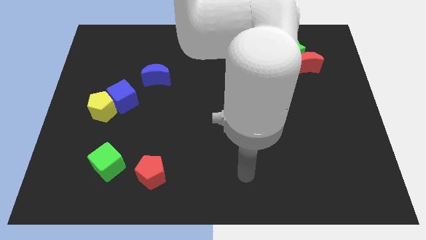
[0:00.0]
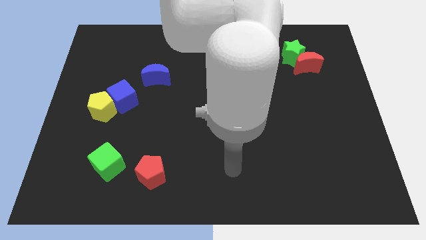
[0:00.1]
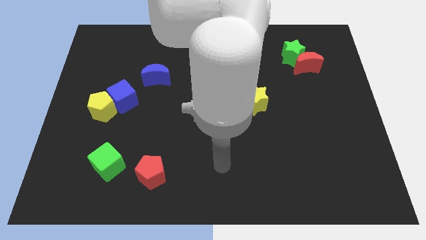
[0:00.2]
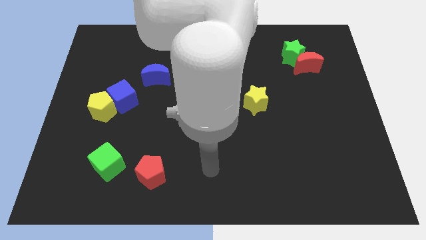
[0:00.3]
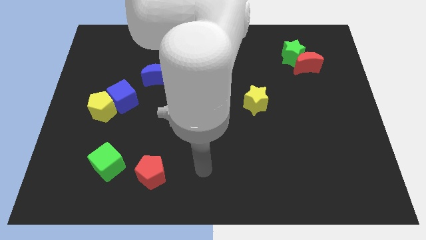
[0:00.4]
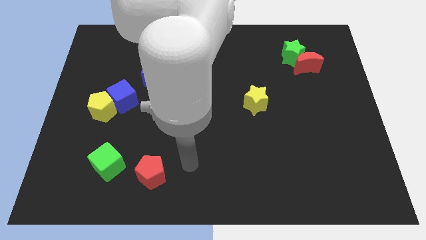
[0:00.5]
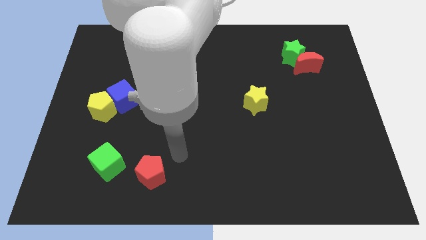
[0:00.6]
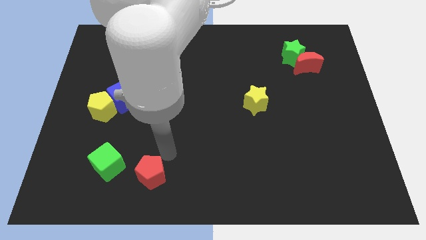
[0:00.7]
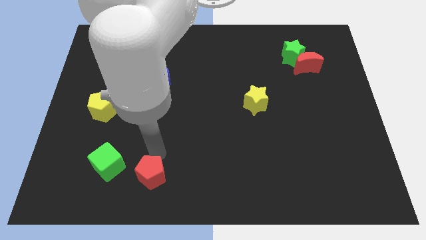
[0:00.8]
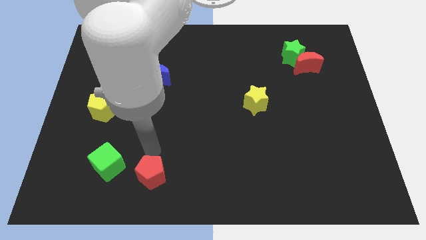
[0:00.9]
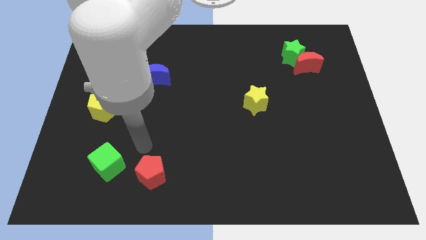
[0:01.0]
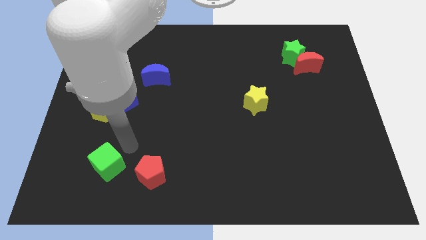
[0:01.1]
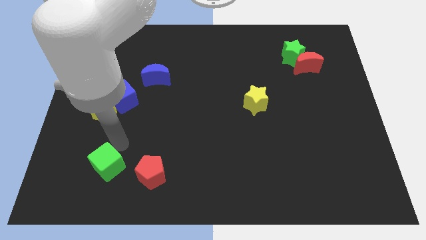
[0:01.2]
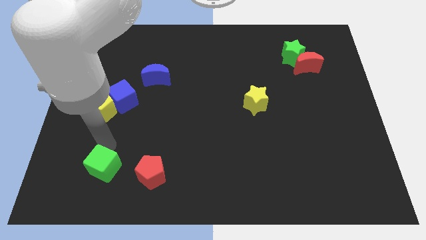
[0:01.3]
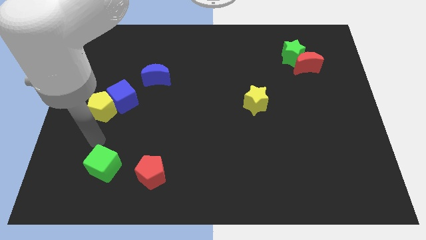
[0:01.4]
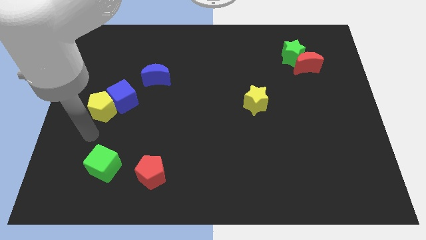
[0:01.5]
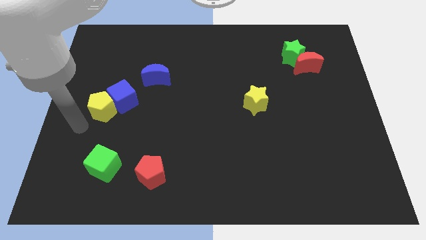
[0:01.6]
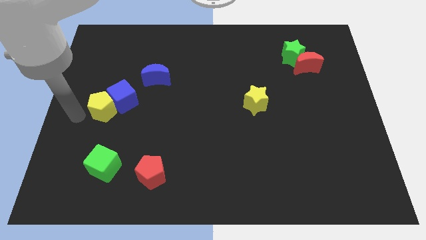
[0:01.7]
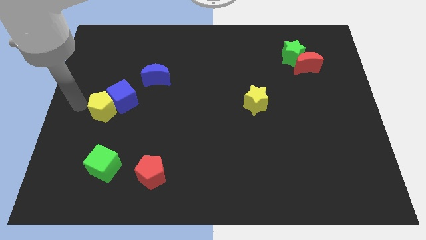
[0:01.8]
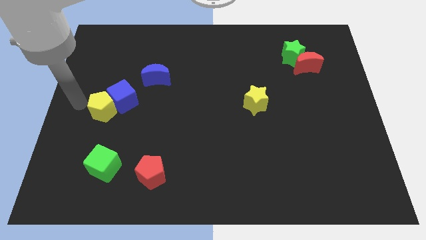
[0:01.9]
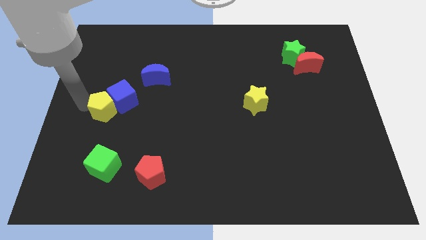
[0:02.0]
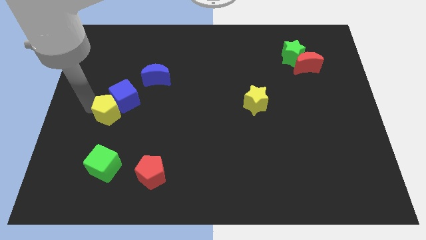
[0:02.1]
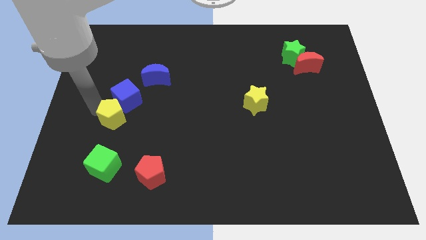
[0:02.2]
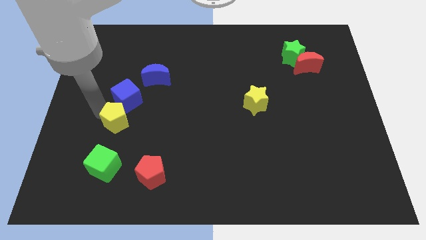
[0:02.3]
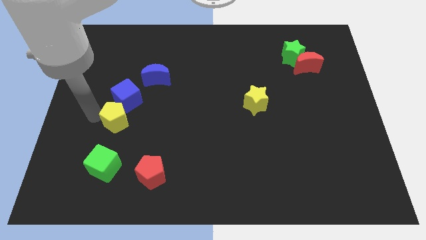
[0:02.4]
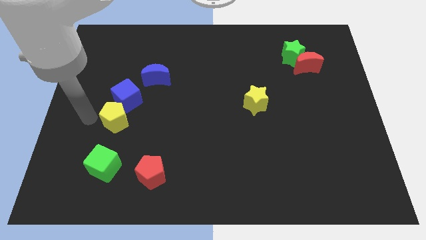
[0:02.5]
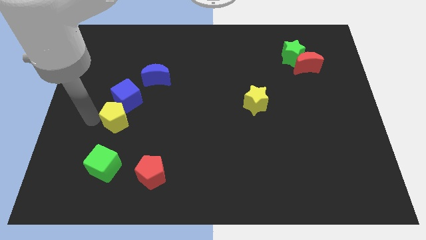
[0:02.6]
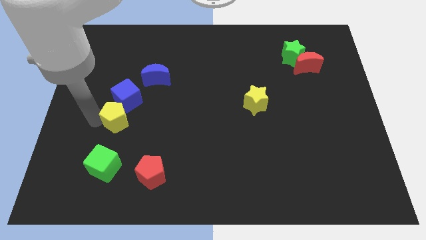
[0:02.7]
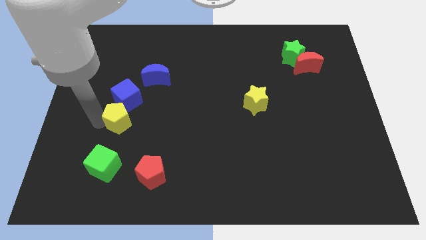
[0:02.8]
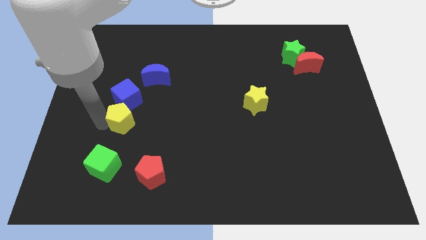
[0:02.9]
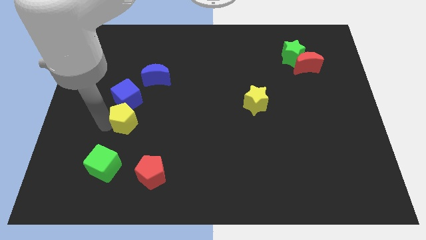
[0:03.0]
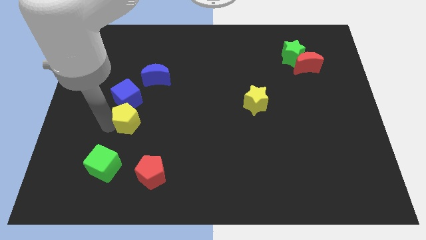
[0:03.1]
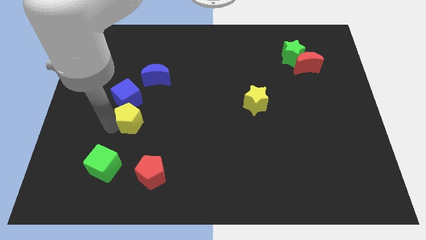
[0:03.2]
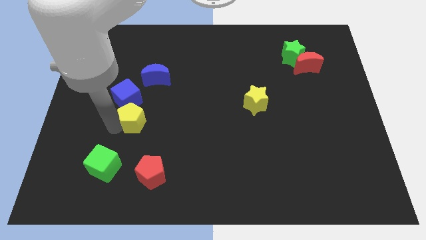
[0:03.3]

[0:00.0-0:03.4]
slightly slide the yellow pentagon right

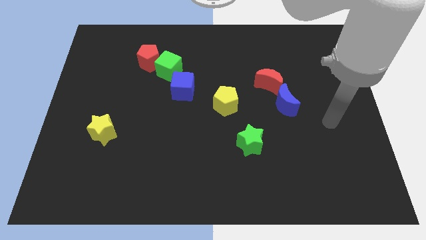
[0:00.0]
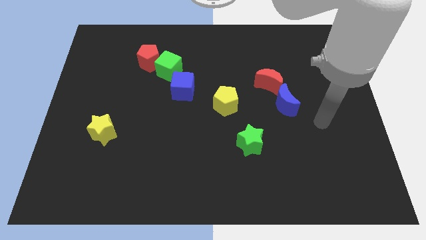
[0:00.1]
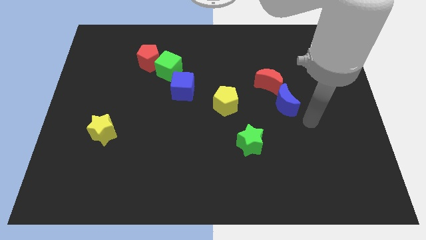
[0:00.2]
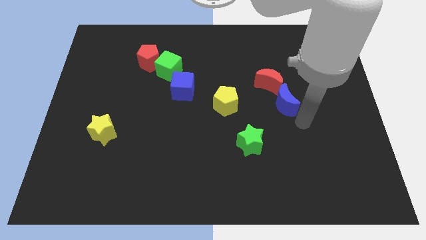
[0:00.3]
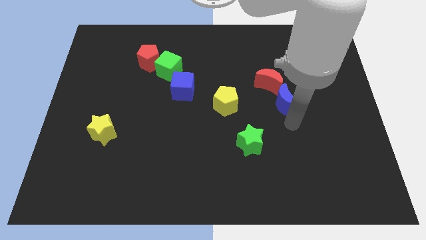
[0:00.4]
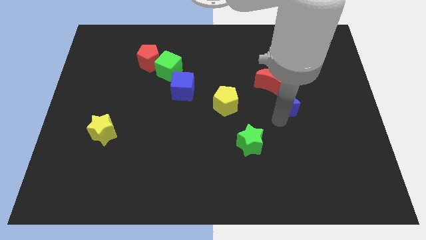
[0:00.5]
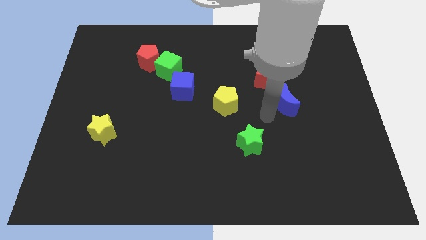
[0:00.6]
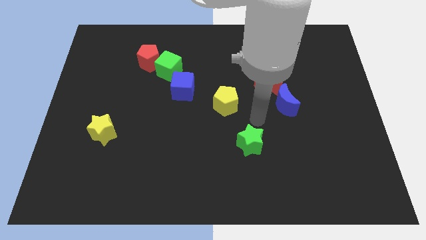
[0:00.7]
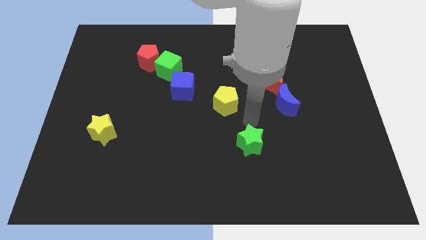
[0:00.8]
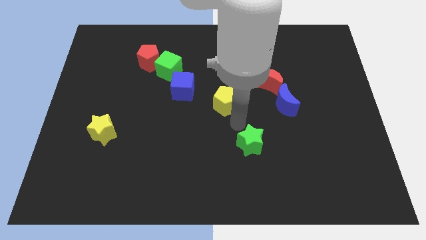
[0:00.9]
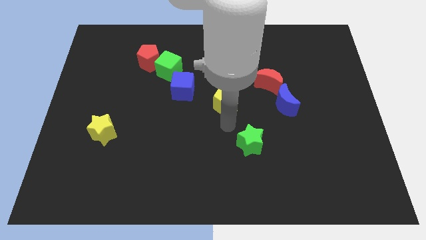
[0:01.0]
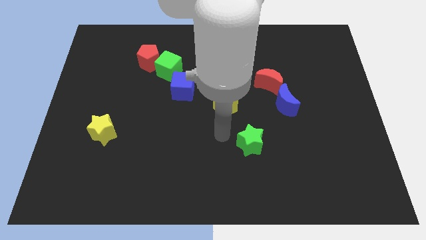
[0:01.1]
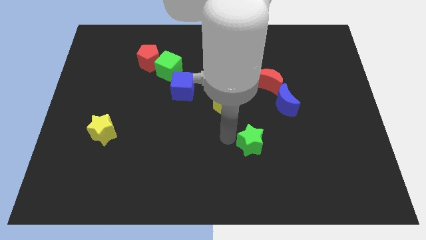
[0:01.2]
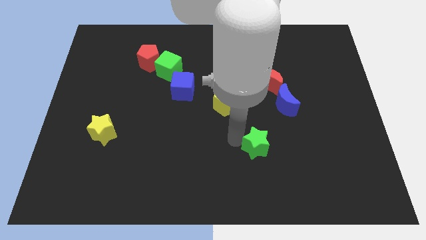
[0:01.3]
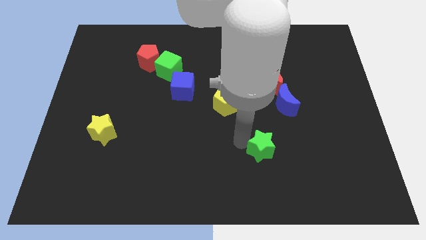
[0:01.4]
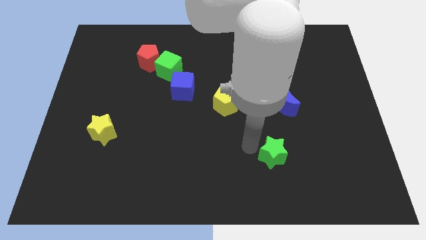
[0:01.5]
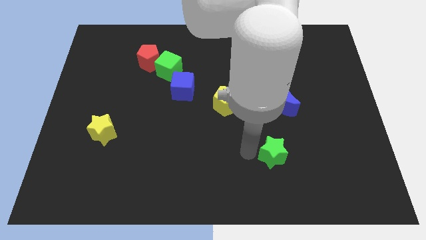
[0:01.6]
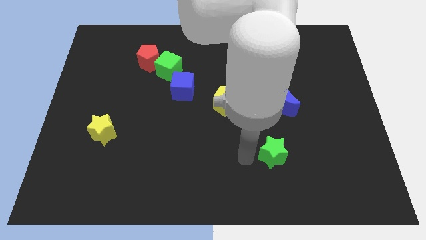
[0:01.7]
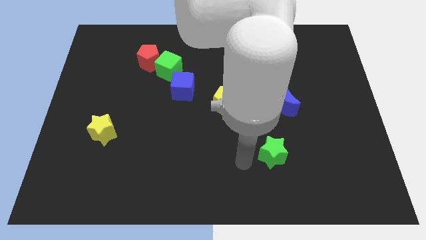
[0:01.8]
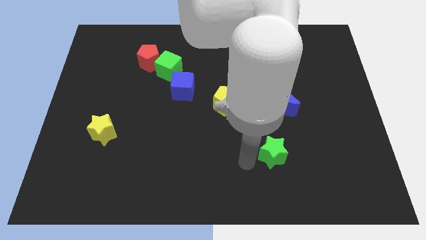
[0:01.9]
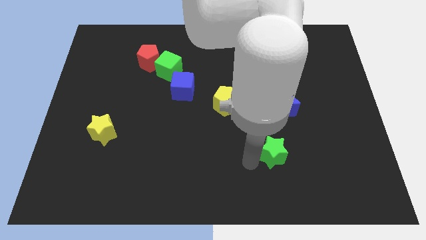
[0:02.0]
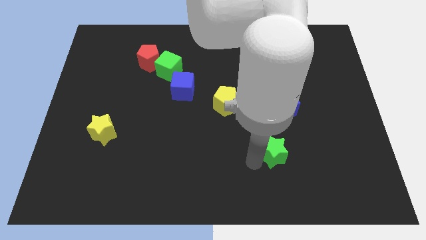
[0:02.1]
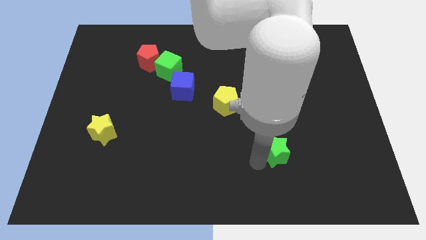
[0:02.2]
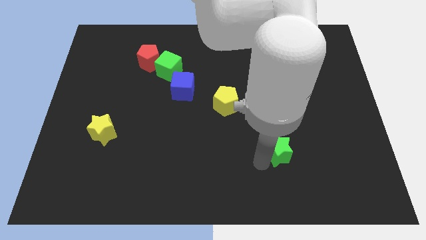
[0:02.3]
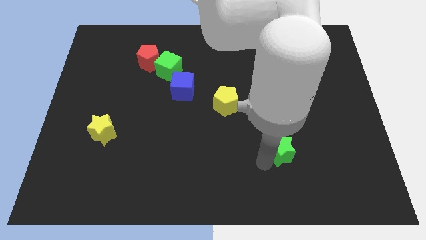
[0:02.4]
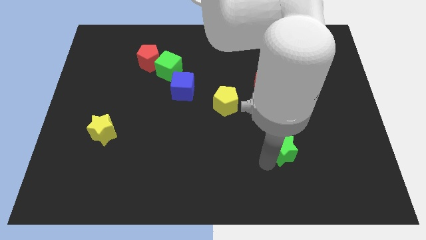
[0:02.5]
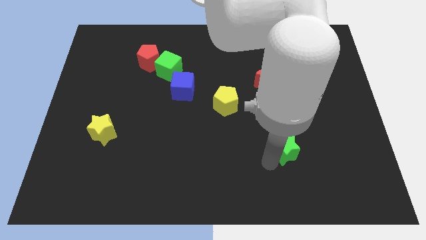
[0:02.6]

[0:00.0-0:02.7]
move the green star slightly to the right

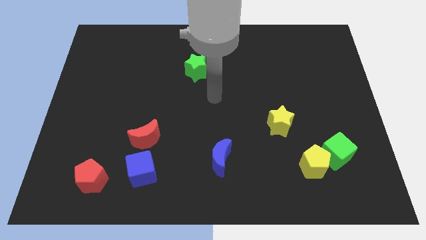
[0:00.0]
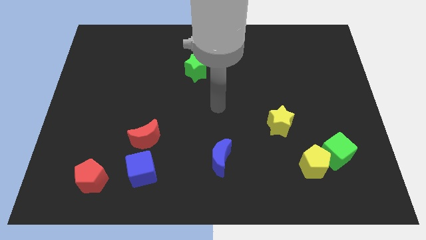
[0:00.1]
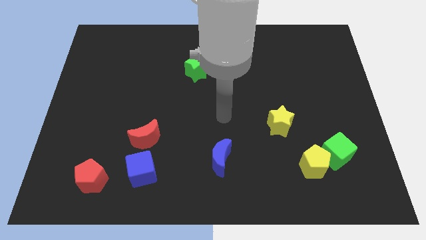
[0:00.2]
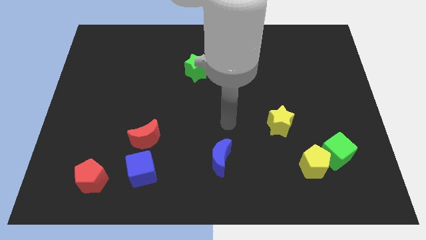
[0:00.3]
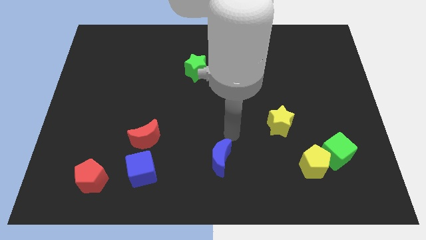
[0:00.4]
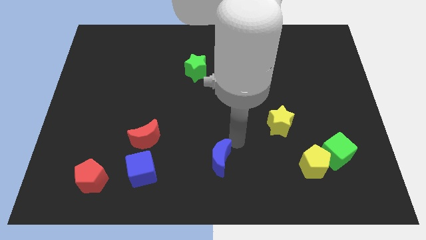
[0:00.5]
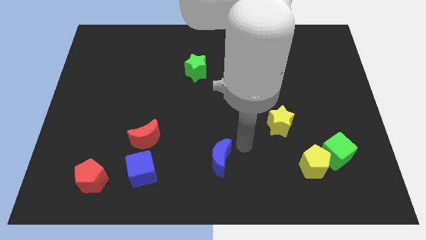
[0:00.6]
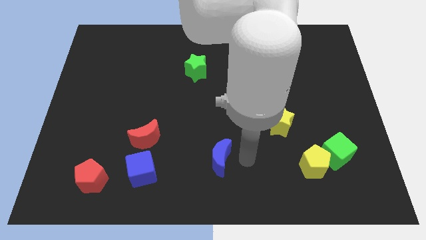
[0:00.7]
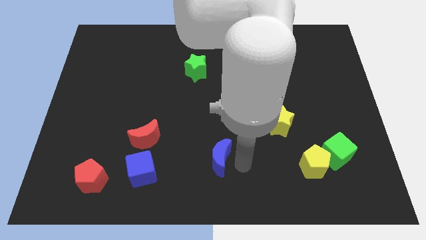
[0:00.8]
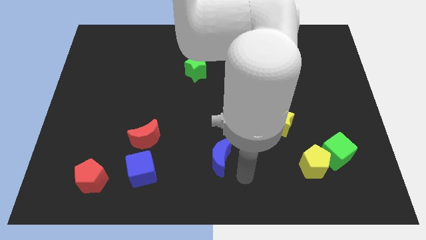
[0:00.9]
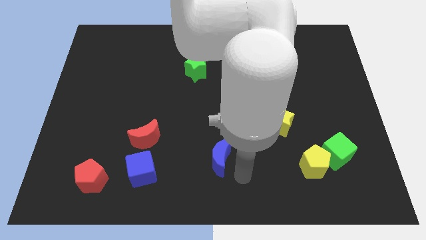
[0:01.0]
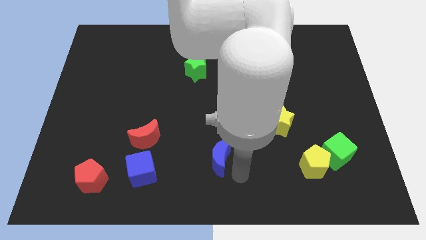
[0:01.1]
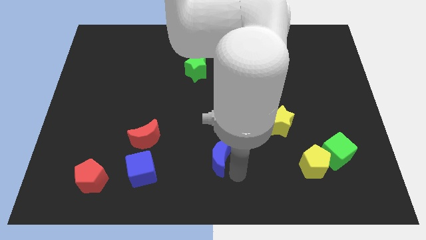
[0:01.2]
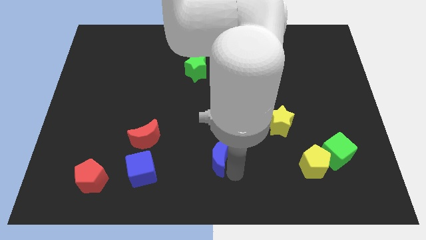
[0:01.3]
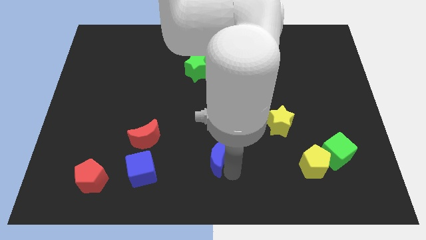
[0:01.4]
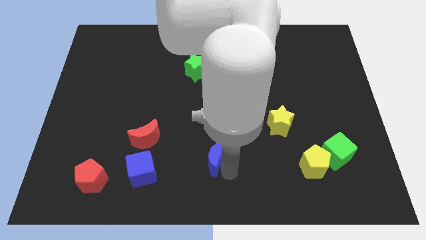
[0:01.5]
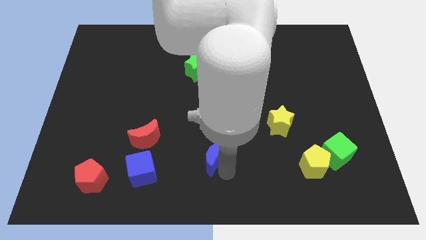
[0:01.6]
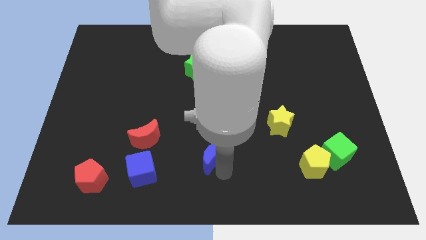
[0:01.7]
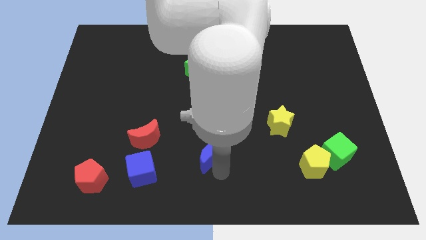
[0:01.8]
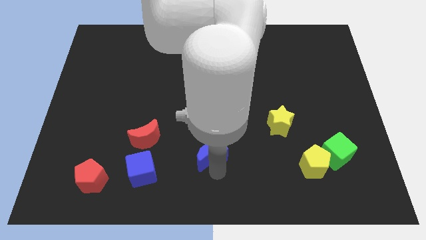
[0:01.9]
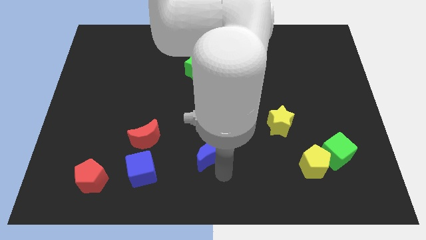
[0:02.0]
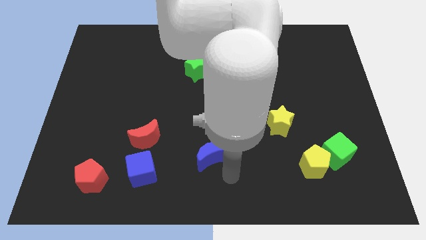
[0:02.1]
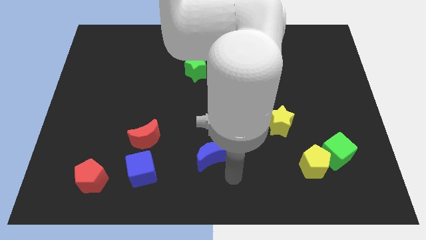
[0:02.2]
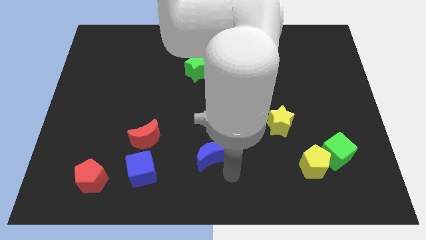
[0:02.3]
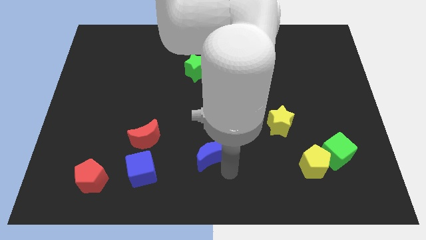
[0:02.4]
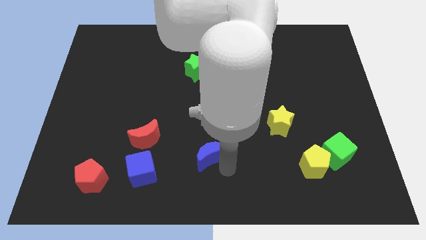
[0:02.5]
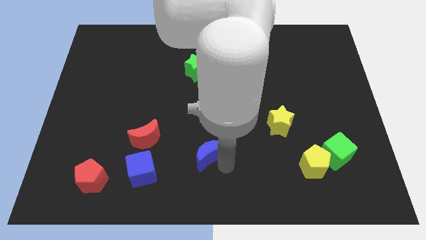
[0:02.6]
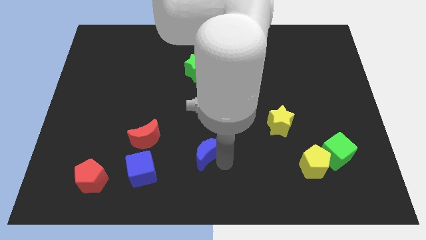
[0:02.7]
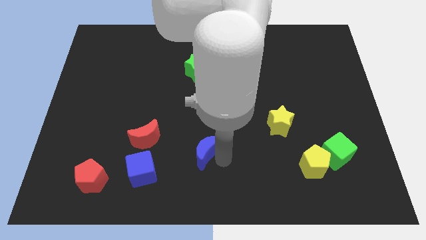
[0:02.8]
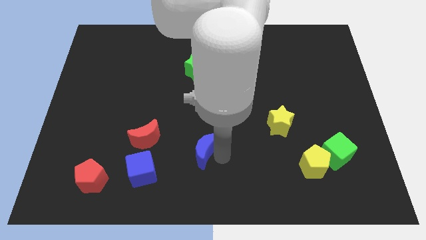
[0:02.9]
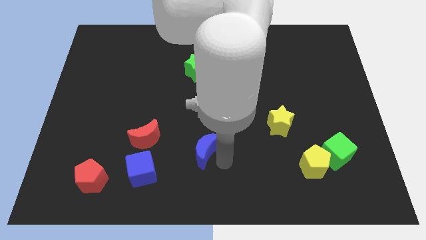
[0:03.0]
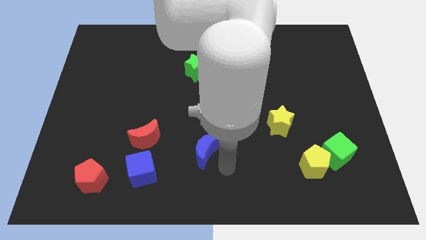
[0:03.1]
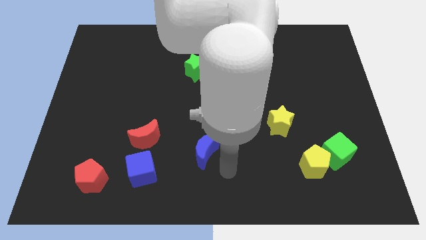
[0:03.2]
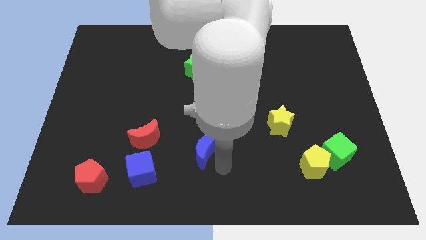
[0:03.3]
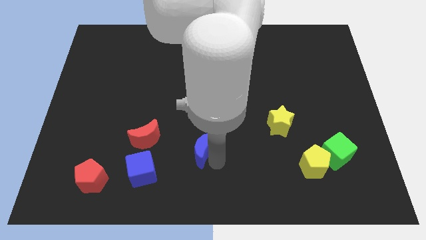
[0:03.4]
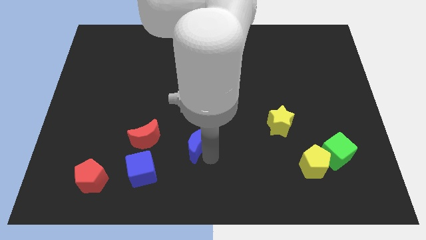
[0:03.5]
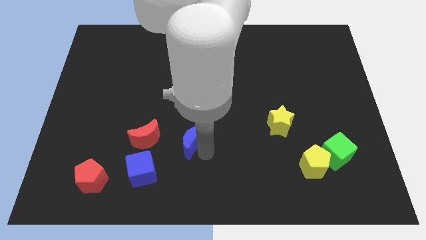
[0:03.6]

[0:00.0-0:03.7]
slide the blue moon slightly up and left diagonally
